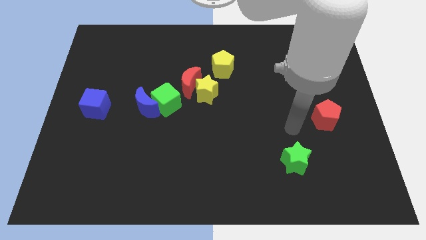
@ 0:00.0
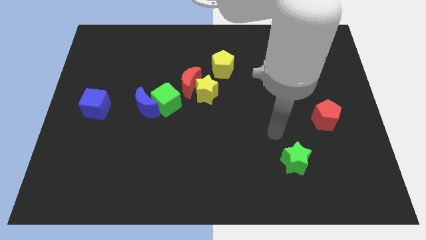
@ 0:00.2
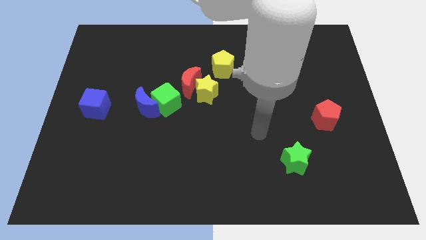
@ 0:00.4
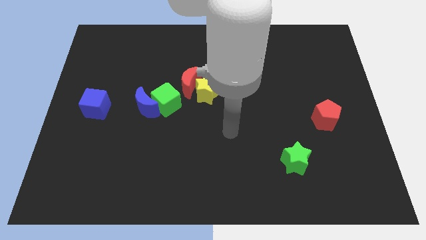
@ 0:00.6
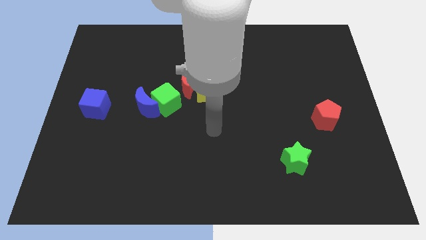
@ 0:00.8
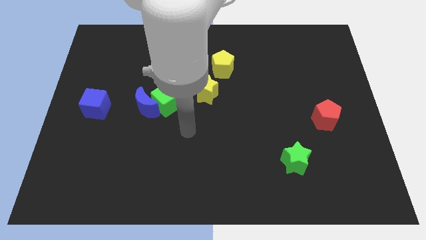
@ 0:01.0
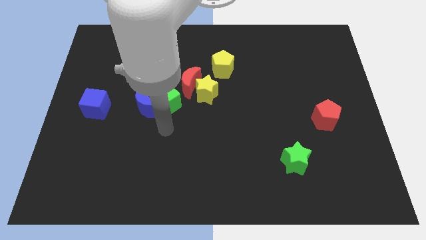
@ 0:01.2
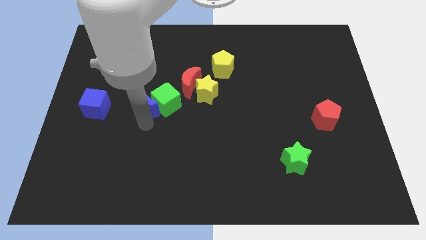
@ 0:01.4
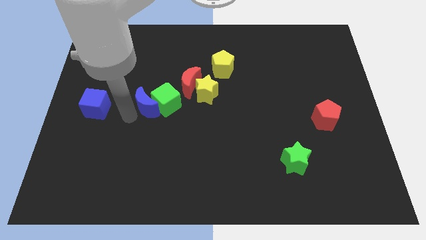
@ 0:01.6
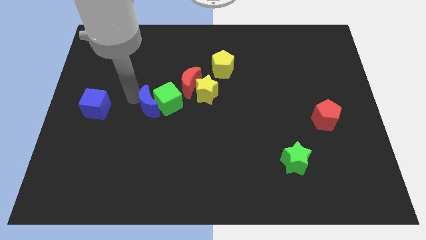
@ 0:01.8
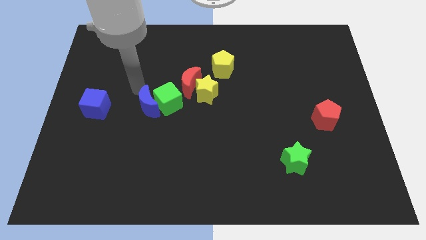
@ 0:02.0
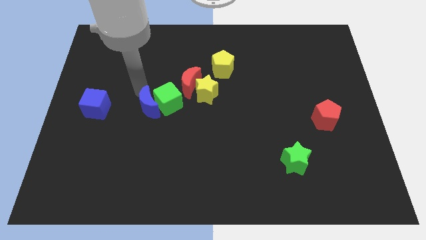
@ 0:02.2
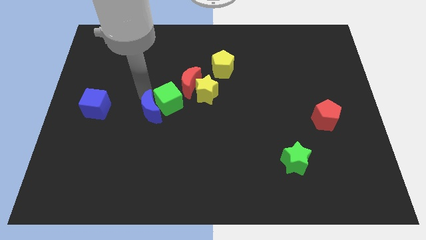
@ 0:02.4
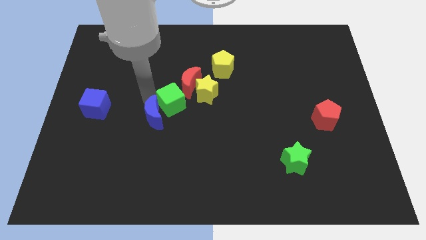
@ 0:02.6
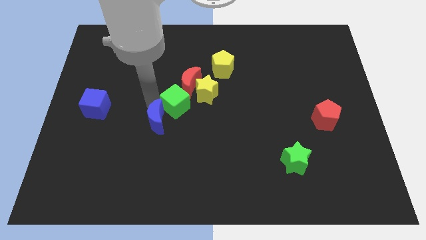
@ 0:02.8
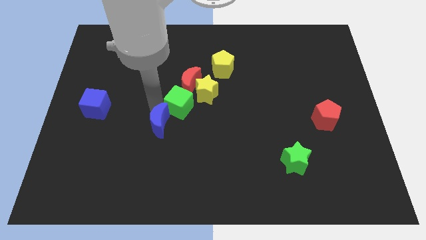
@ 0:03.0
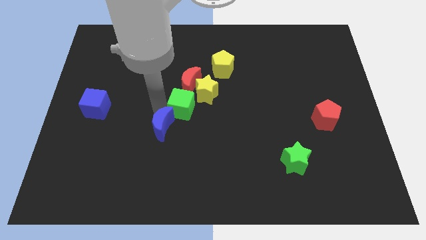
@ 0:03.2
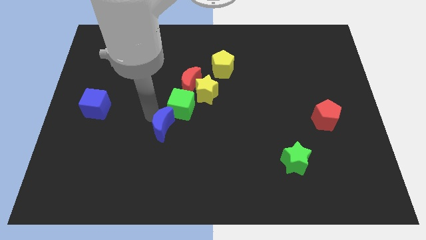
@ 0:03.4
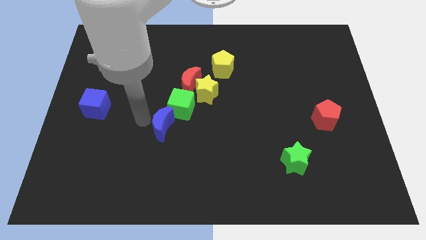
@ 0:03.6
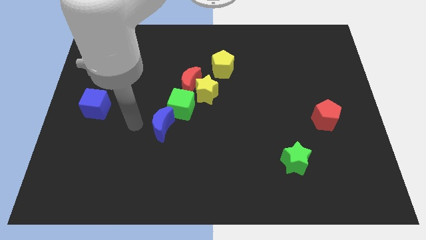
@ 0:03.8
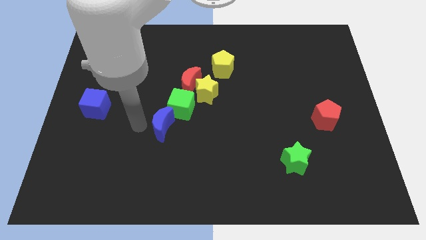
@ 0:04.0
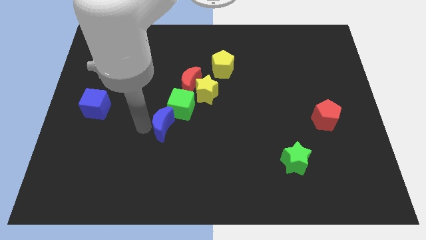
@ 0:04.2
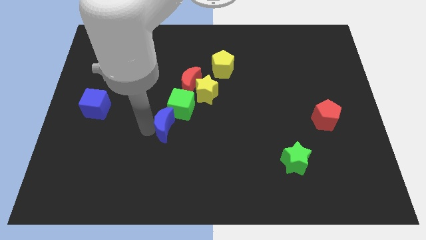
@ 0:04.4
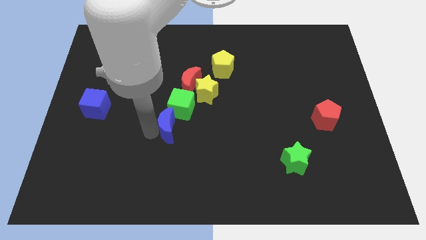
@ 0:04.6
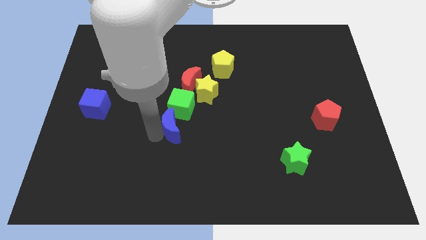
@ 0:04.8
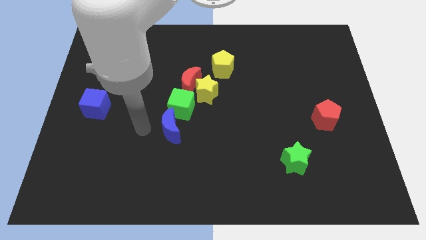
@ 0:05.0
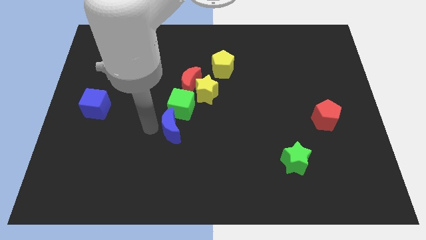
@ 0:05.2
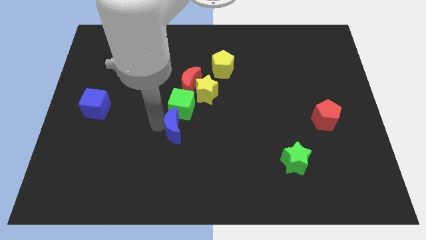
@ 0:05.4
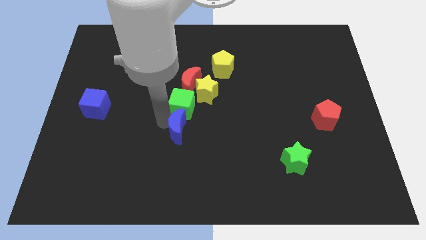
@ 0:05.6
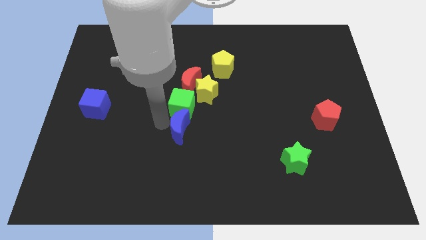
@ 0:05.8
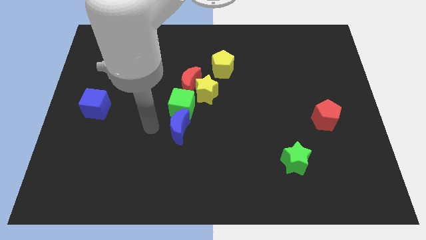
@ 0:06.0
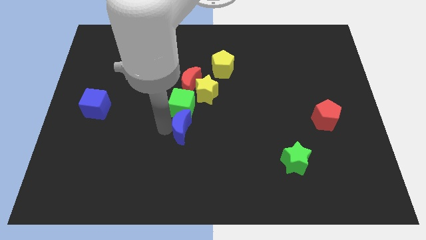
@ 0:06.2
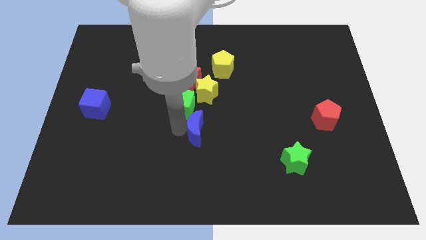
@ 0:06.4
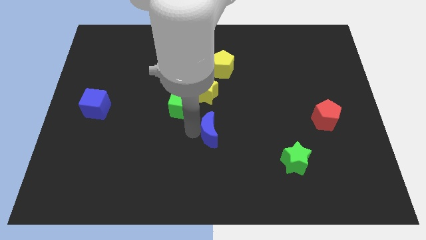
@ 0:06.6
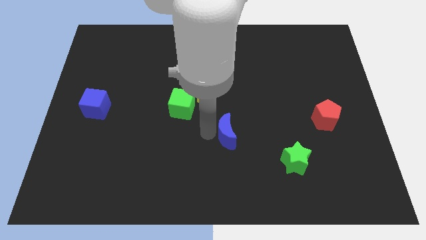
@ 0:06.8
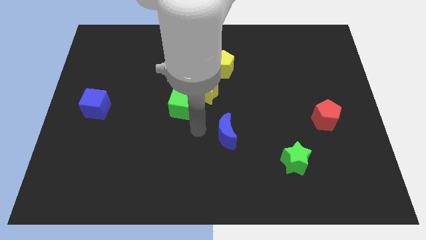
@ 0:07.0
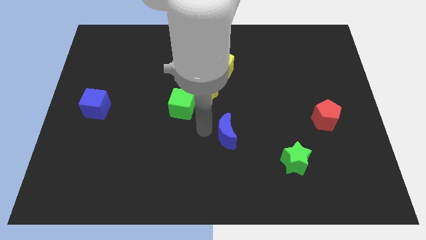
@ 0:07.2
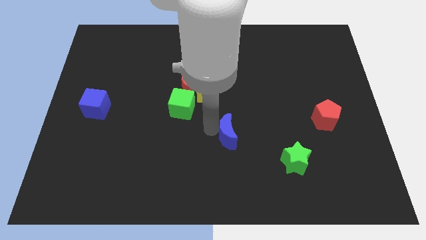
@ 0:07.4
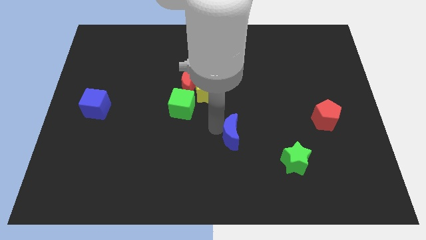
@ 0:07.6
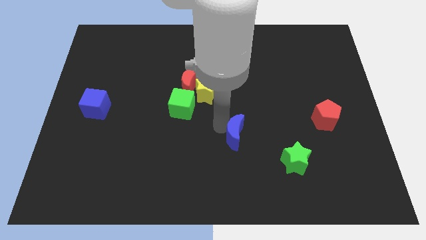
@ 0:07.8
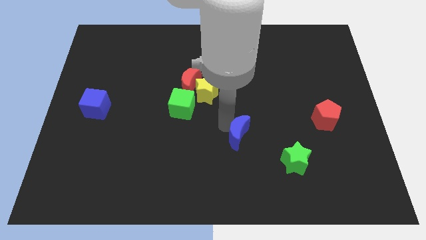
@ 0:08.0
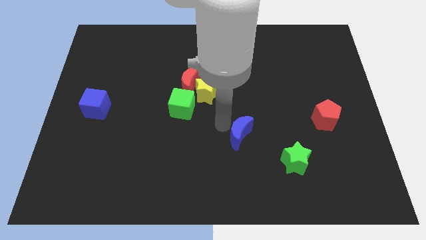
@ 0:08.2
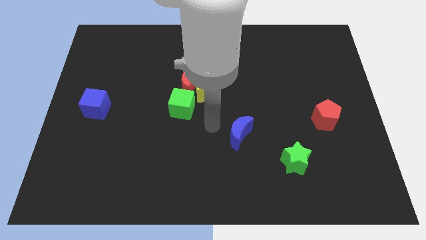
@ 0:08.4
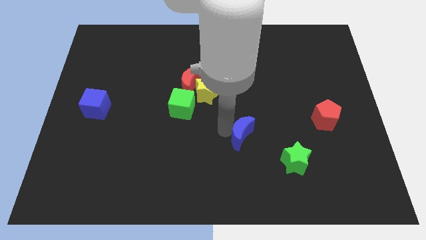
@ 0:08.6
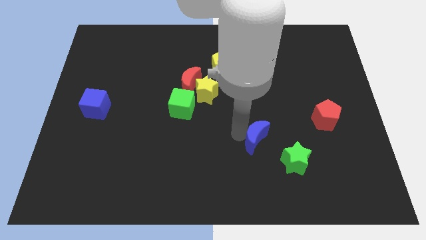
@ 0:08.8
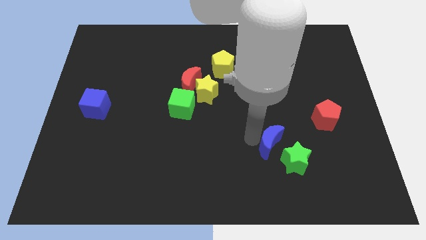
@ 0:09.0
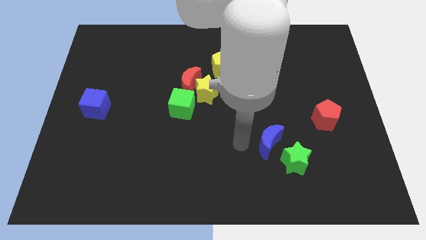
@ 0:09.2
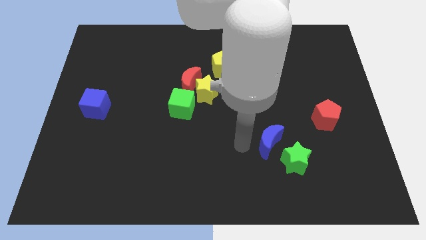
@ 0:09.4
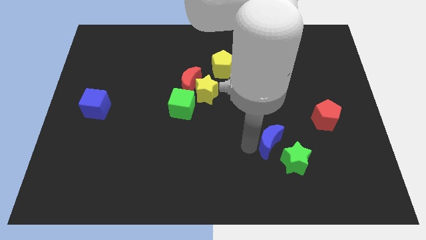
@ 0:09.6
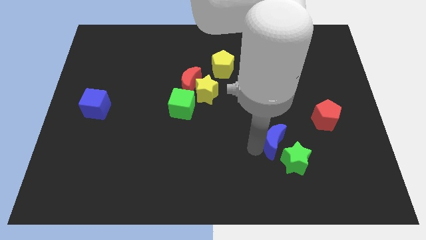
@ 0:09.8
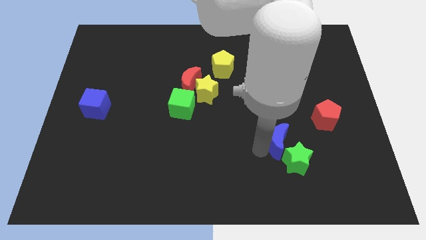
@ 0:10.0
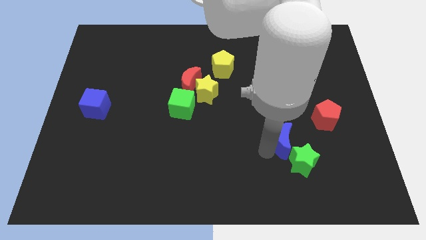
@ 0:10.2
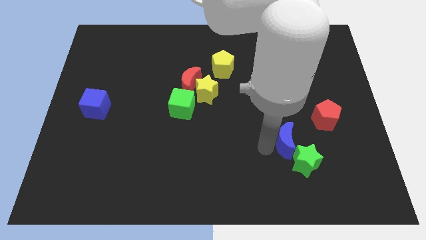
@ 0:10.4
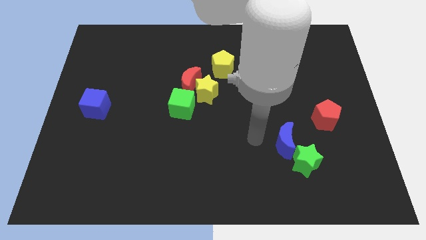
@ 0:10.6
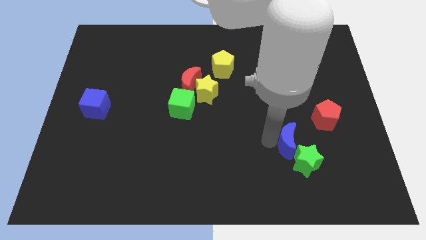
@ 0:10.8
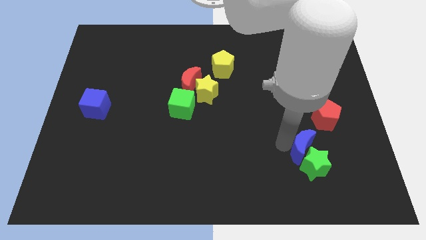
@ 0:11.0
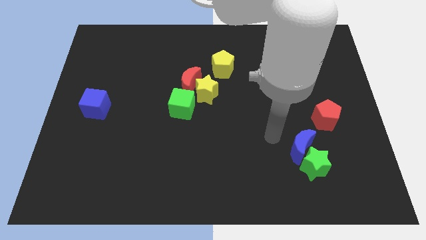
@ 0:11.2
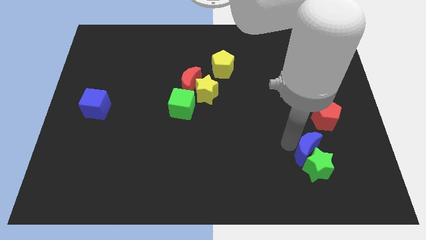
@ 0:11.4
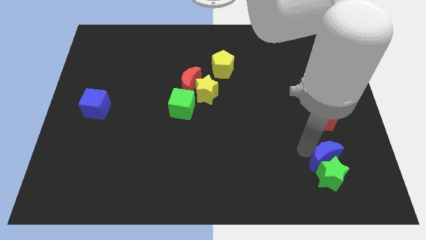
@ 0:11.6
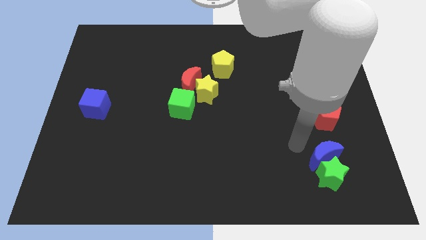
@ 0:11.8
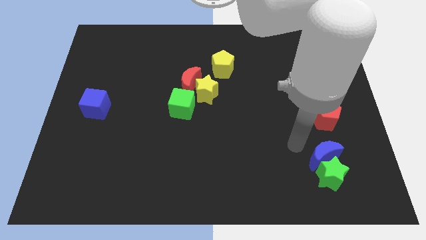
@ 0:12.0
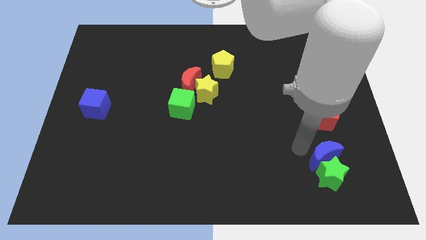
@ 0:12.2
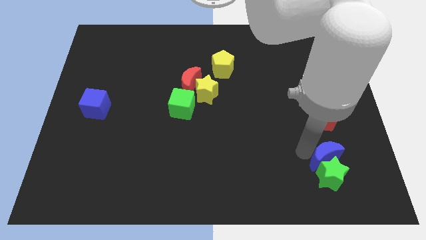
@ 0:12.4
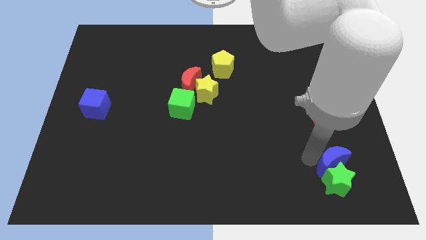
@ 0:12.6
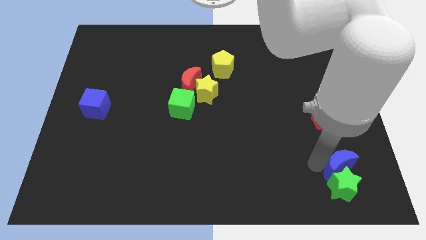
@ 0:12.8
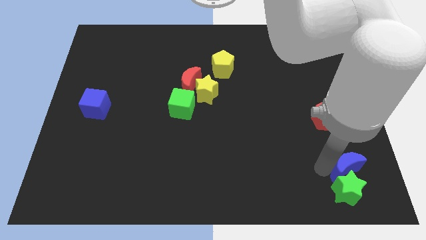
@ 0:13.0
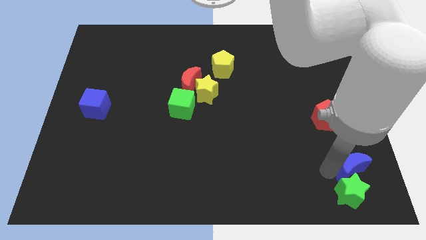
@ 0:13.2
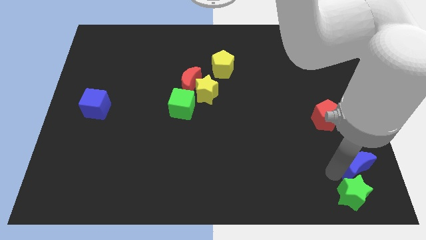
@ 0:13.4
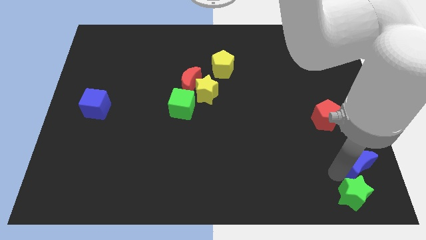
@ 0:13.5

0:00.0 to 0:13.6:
slide the blue moon to the bottom right corner

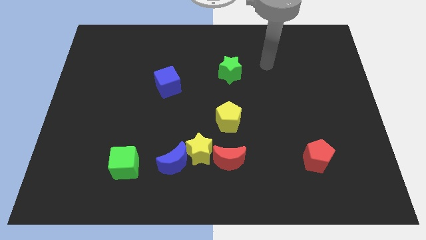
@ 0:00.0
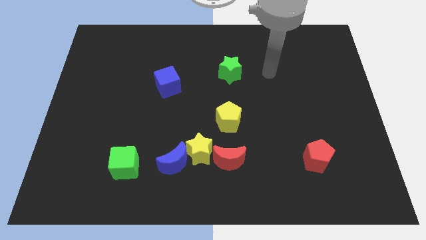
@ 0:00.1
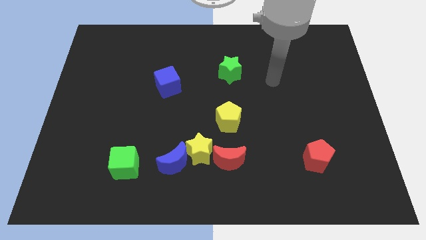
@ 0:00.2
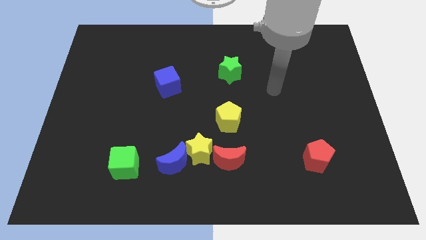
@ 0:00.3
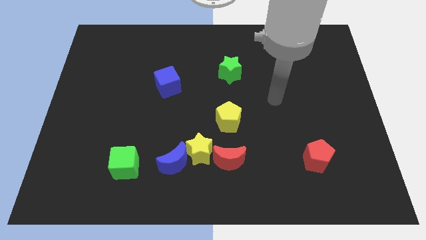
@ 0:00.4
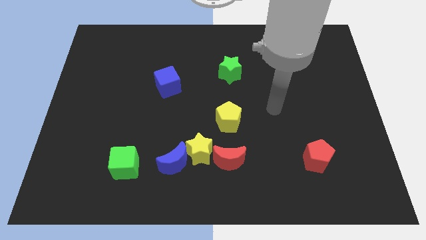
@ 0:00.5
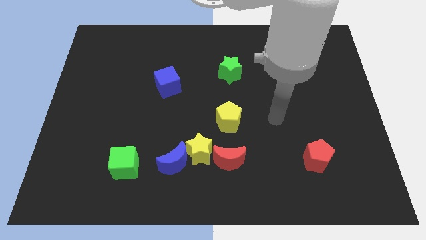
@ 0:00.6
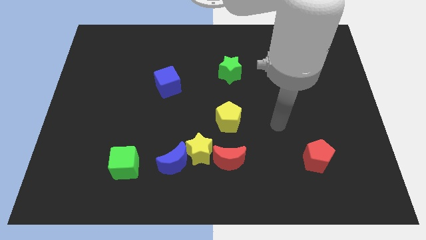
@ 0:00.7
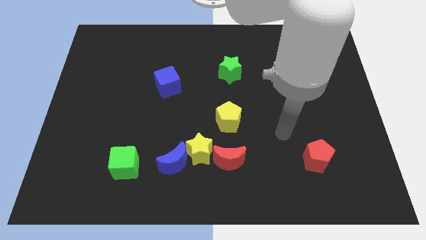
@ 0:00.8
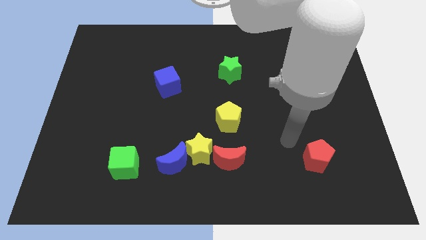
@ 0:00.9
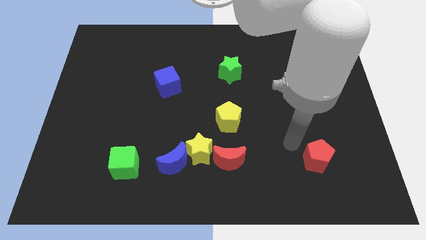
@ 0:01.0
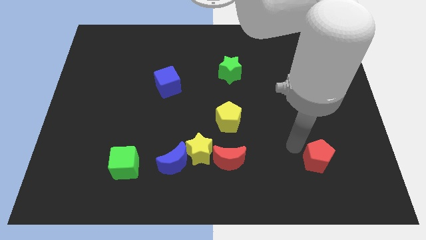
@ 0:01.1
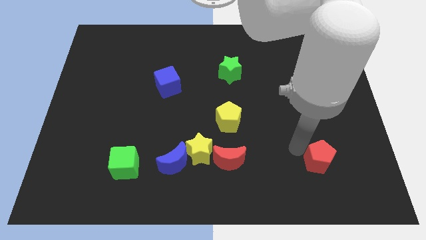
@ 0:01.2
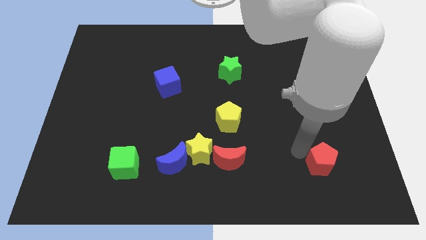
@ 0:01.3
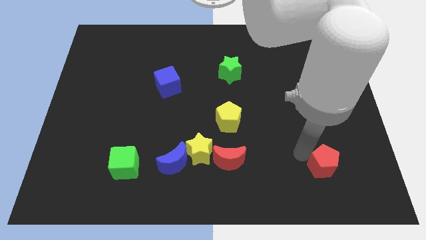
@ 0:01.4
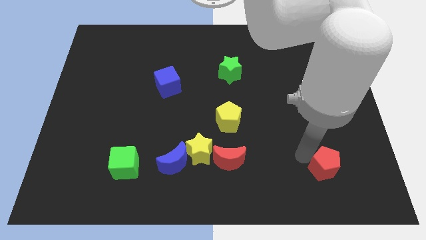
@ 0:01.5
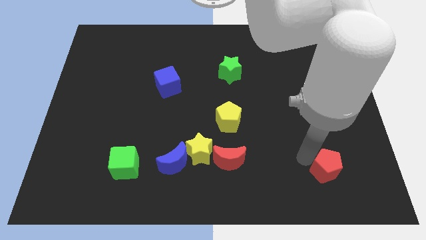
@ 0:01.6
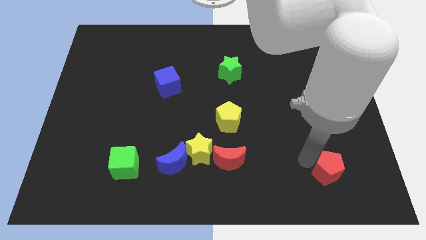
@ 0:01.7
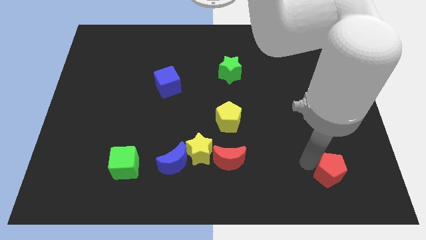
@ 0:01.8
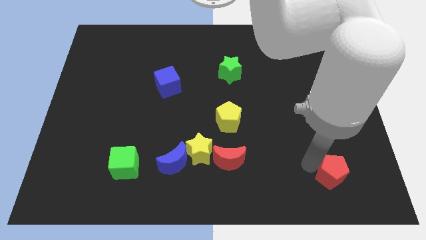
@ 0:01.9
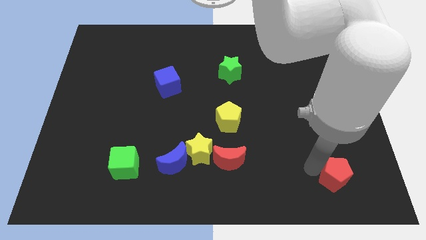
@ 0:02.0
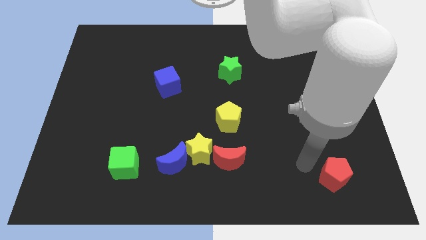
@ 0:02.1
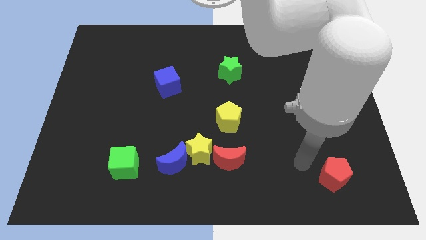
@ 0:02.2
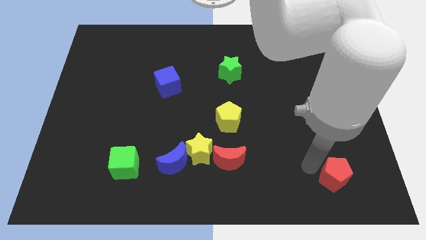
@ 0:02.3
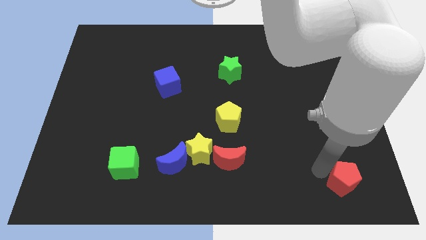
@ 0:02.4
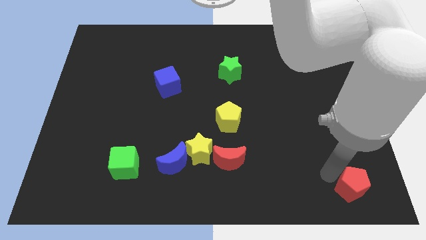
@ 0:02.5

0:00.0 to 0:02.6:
slide the red pentagon to the bottom right of the board
